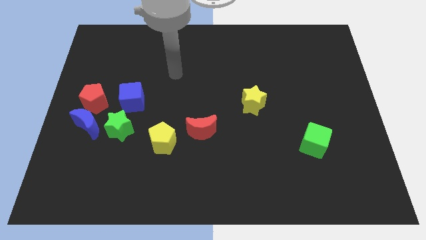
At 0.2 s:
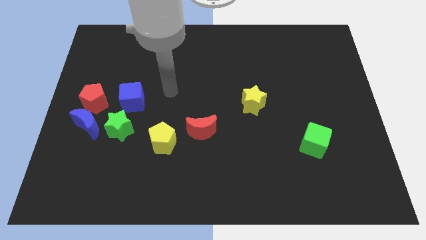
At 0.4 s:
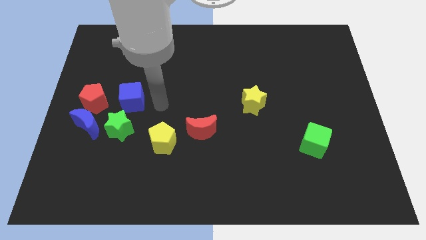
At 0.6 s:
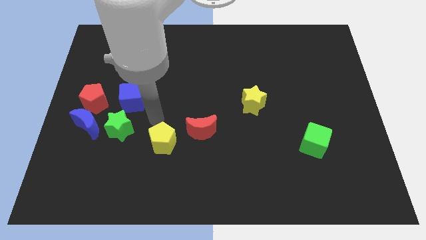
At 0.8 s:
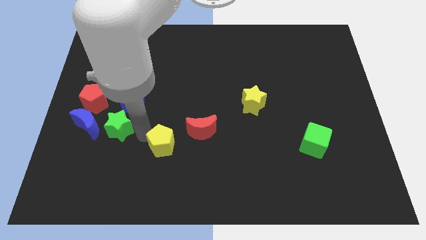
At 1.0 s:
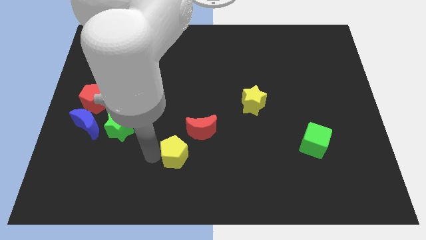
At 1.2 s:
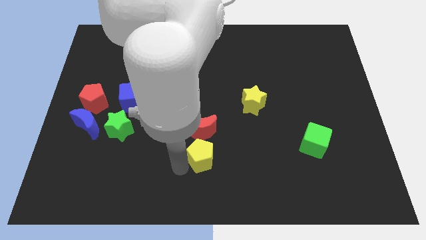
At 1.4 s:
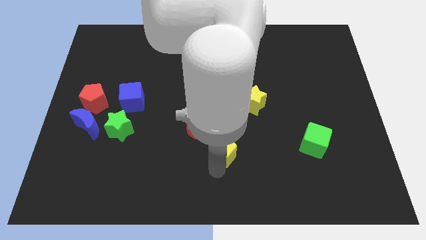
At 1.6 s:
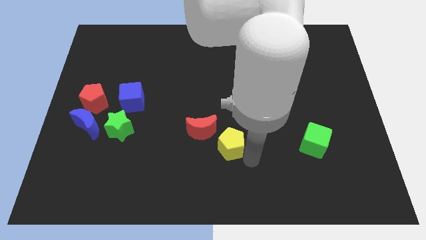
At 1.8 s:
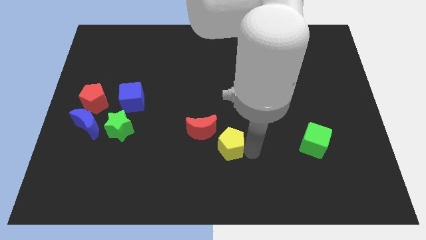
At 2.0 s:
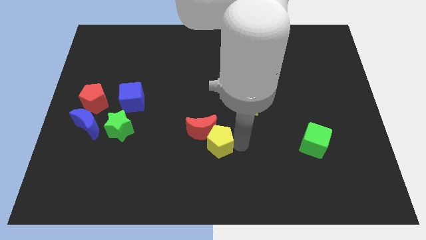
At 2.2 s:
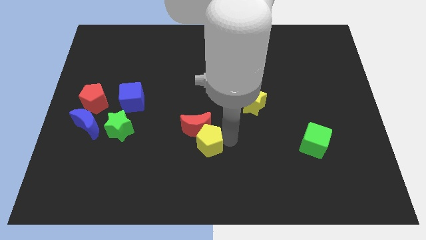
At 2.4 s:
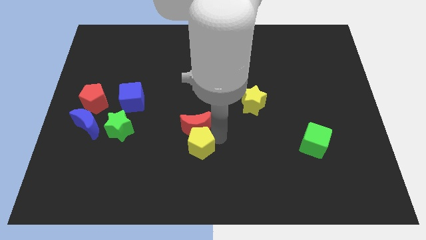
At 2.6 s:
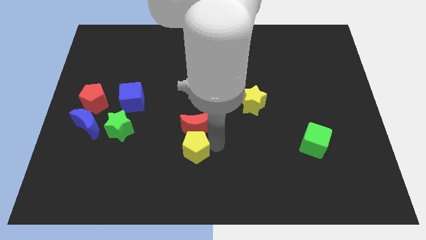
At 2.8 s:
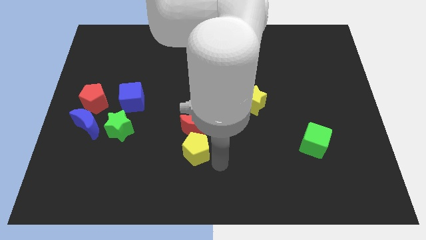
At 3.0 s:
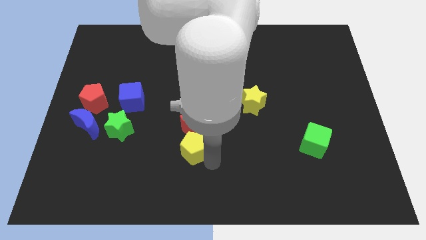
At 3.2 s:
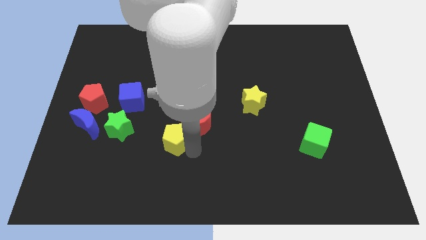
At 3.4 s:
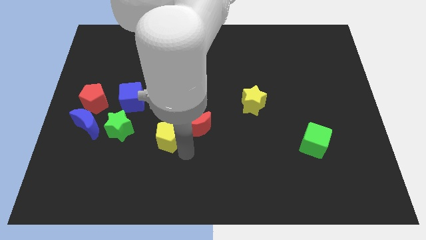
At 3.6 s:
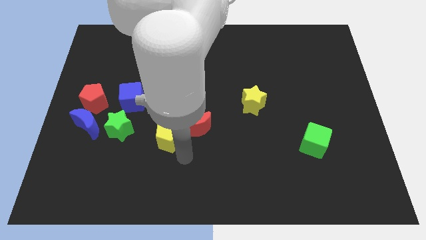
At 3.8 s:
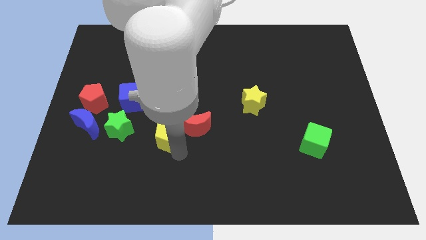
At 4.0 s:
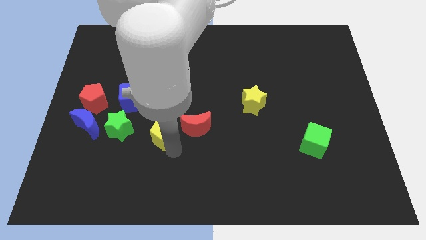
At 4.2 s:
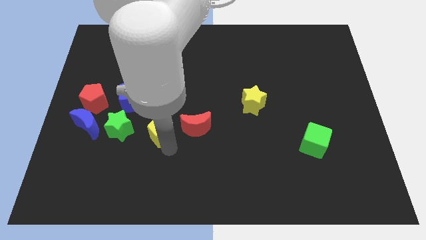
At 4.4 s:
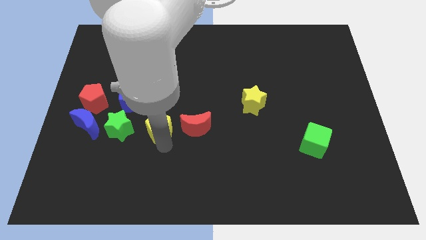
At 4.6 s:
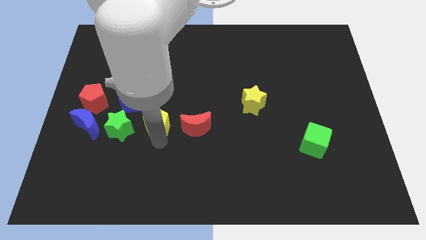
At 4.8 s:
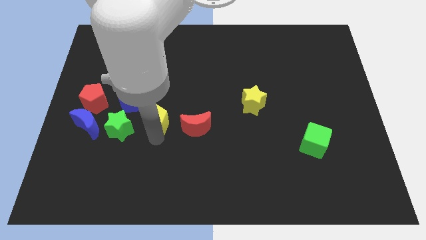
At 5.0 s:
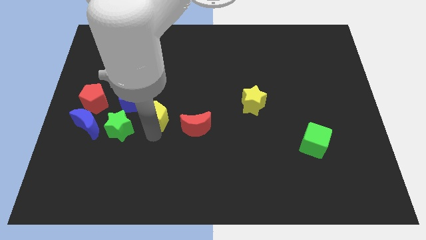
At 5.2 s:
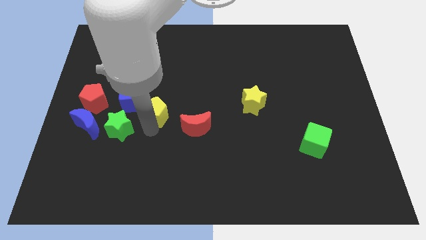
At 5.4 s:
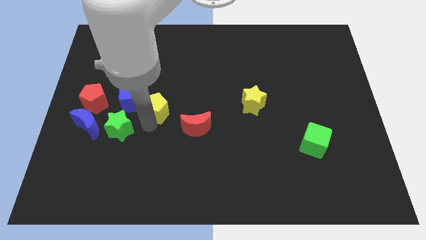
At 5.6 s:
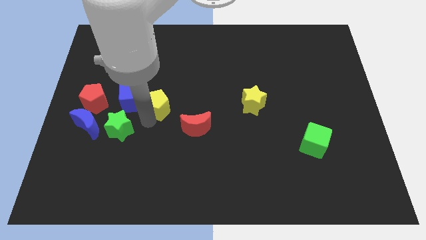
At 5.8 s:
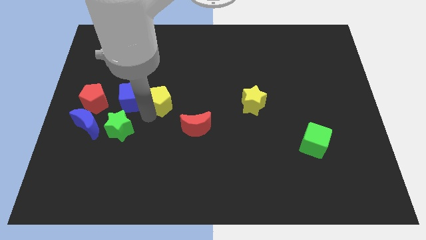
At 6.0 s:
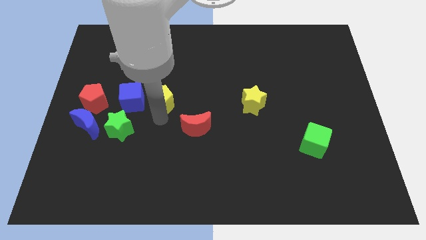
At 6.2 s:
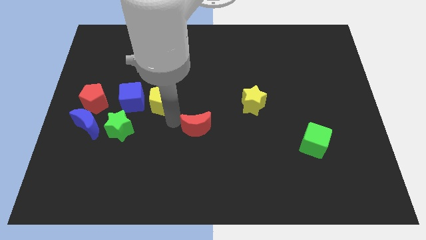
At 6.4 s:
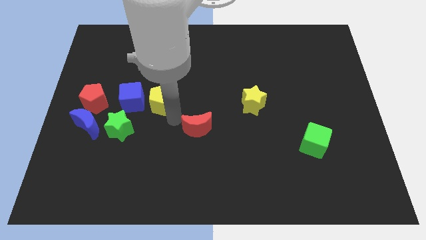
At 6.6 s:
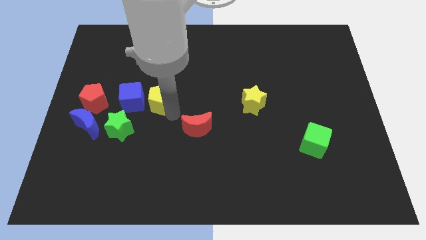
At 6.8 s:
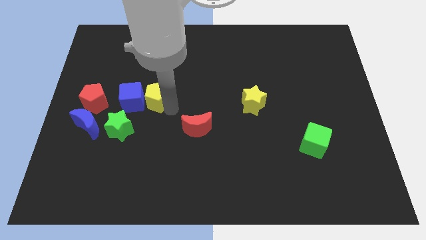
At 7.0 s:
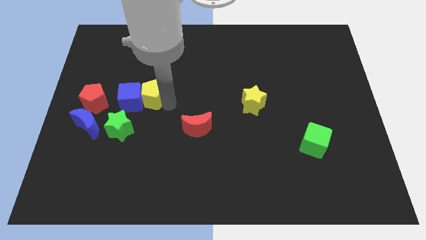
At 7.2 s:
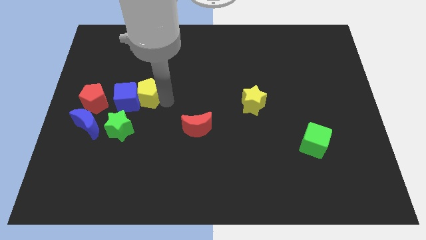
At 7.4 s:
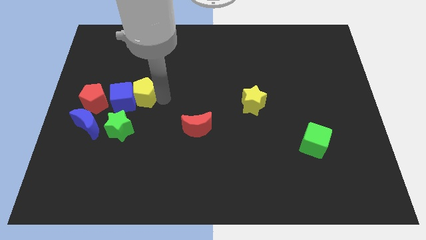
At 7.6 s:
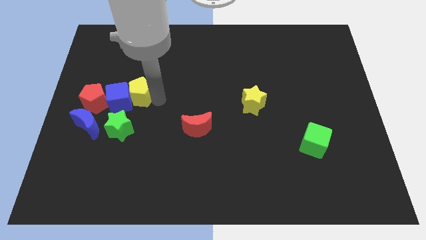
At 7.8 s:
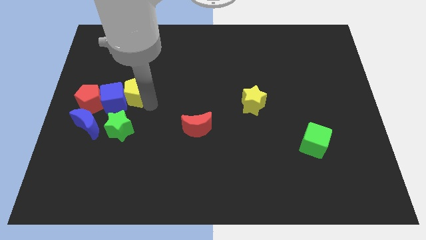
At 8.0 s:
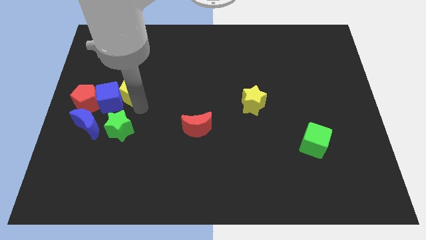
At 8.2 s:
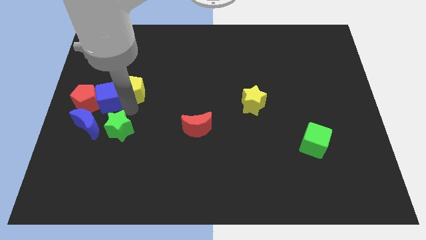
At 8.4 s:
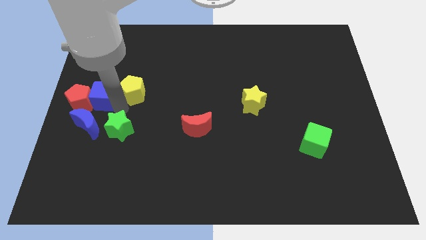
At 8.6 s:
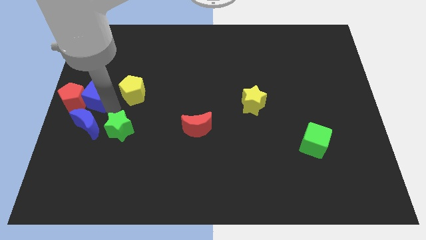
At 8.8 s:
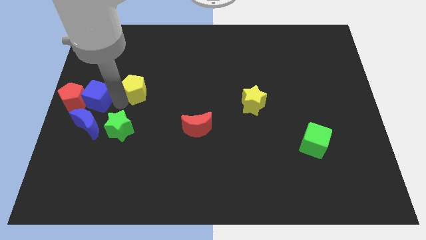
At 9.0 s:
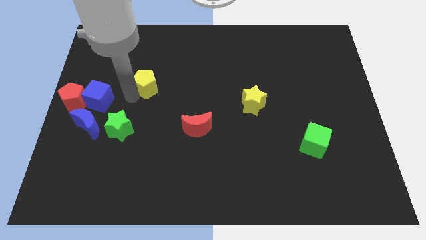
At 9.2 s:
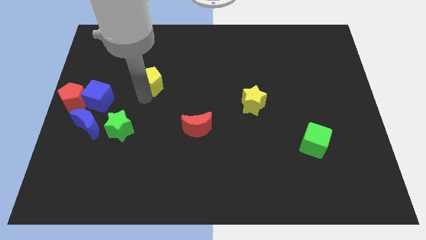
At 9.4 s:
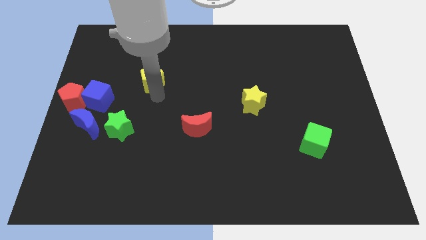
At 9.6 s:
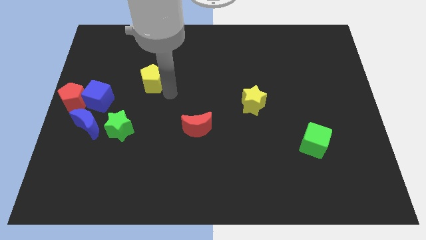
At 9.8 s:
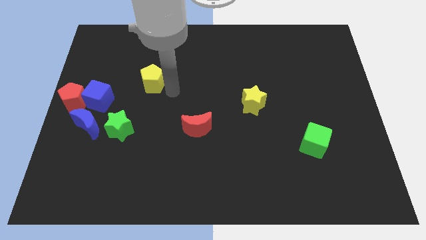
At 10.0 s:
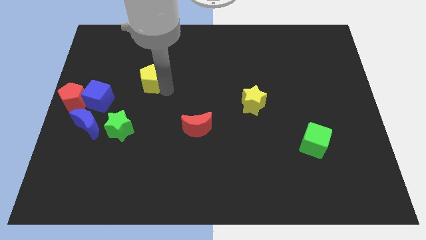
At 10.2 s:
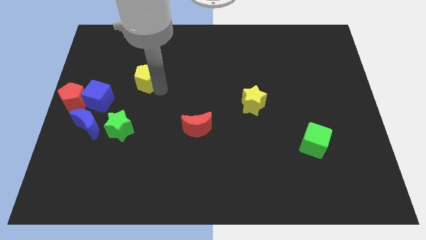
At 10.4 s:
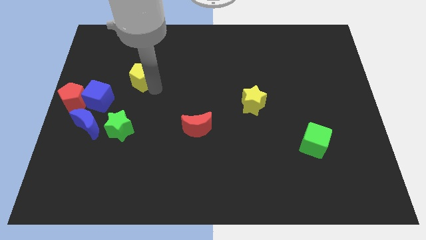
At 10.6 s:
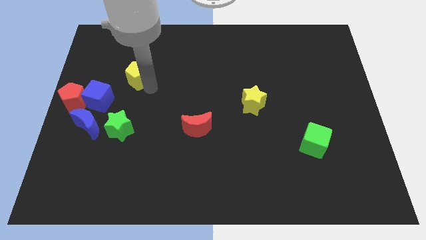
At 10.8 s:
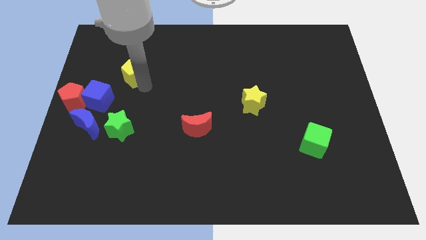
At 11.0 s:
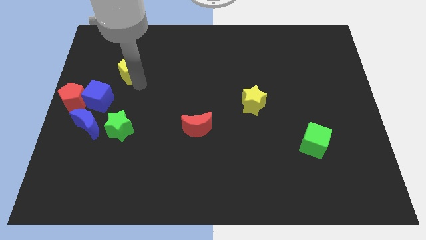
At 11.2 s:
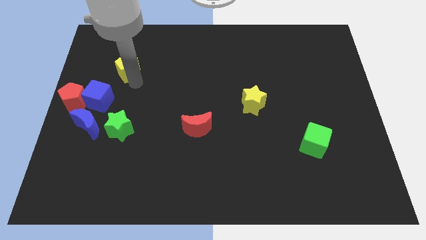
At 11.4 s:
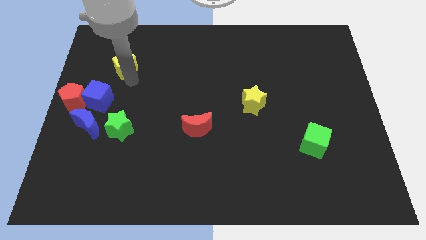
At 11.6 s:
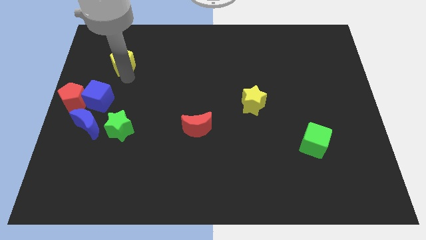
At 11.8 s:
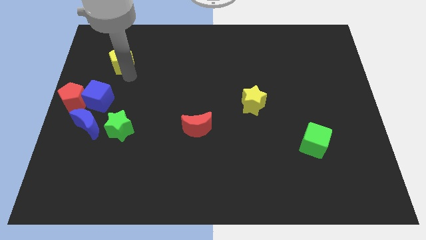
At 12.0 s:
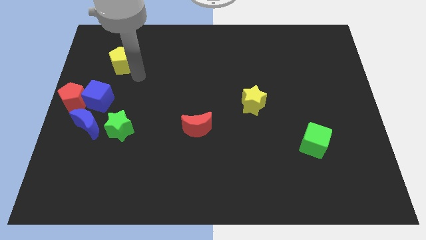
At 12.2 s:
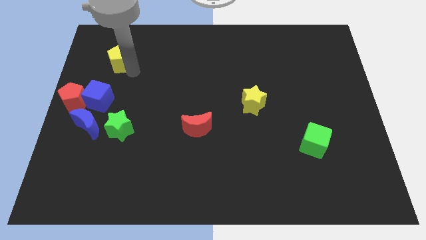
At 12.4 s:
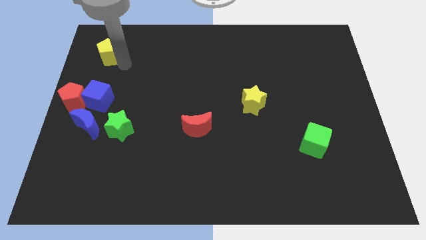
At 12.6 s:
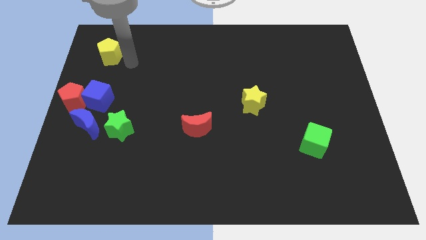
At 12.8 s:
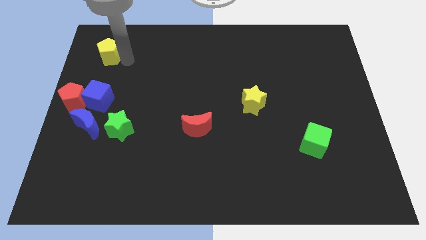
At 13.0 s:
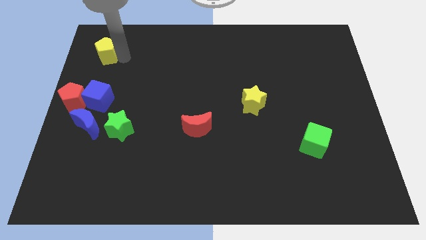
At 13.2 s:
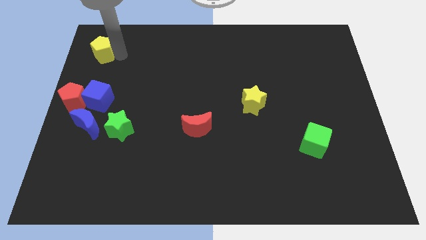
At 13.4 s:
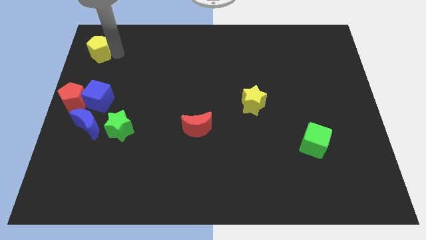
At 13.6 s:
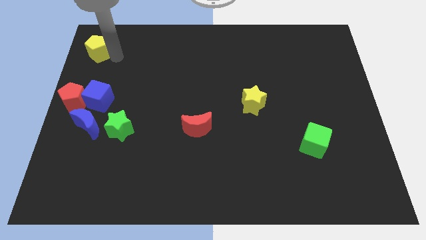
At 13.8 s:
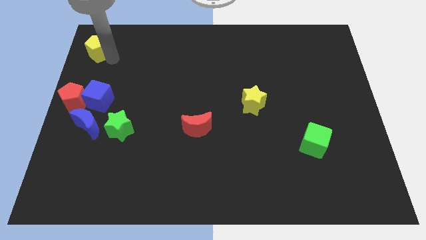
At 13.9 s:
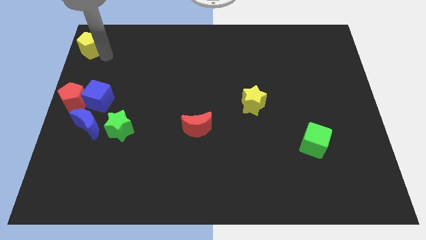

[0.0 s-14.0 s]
move the yellow pentagon to the upper left corner
